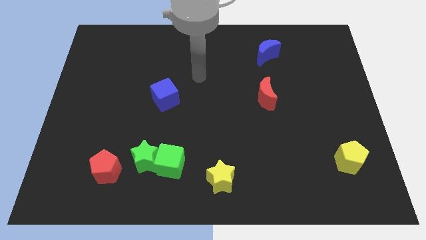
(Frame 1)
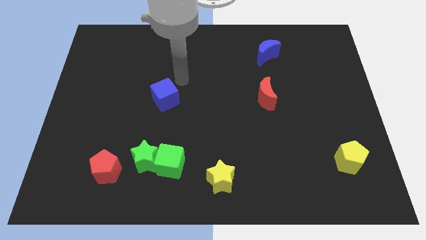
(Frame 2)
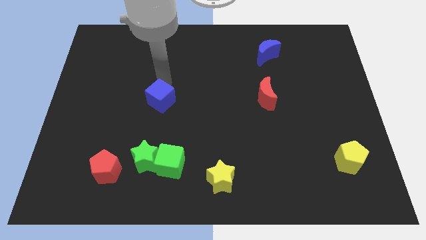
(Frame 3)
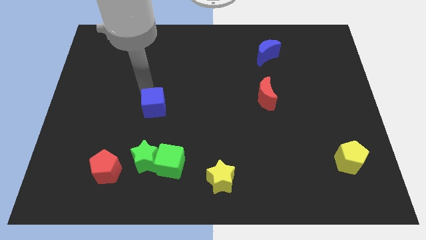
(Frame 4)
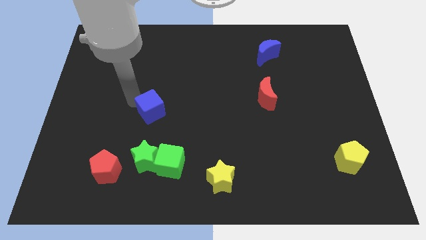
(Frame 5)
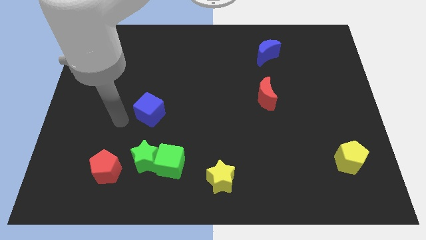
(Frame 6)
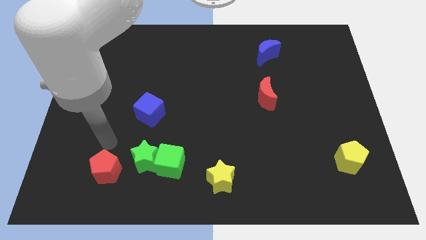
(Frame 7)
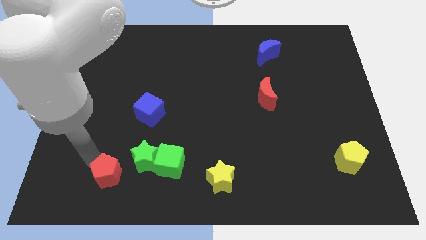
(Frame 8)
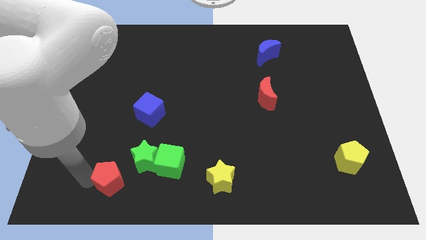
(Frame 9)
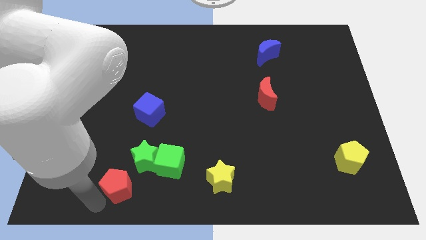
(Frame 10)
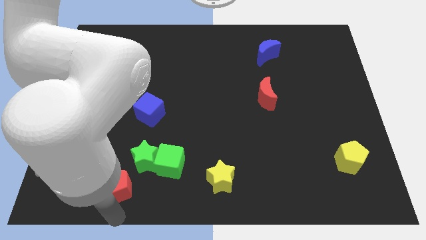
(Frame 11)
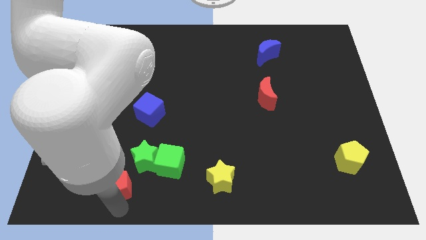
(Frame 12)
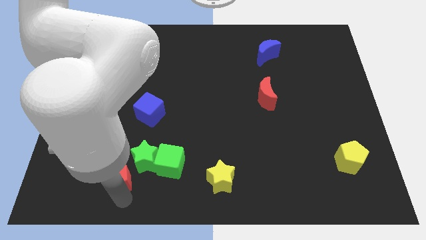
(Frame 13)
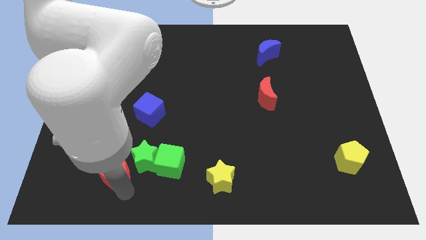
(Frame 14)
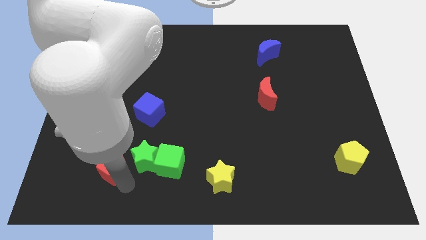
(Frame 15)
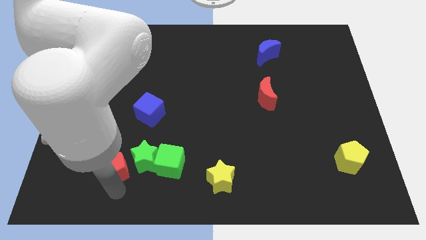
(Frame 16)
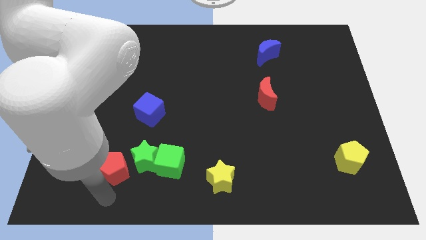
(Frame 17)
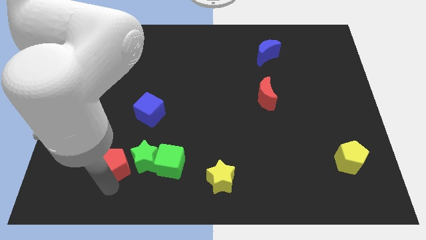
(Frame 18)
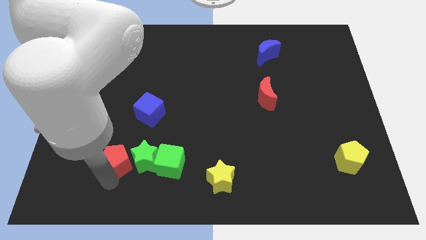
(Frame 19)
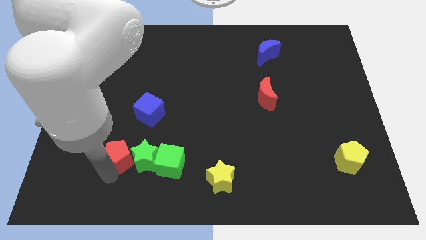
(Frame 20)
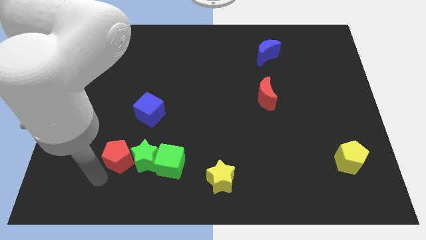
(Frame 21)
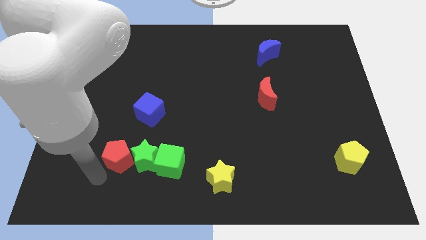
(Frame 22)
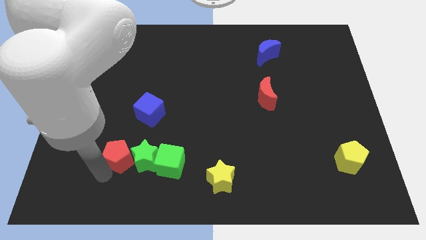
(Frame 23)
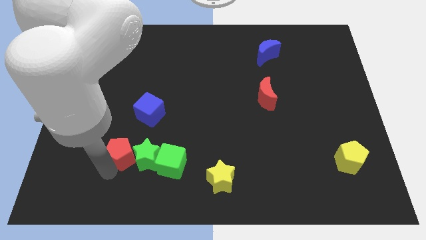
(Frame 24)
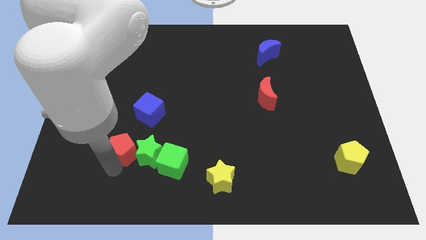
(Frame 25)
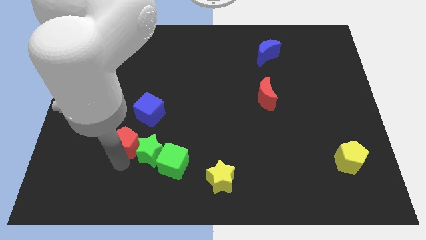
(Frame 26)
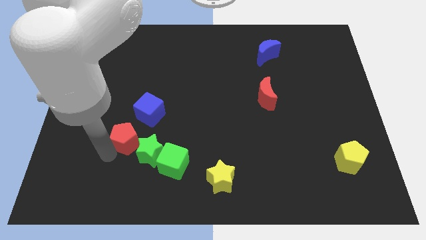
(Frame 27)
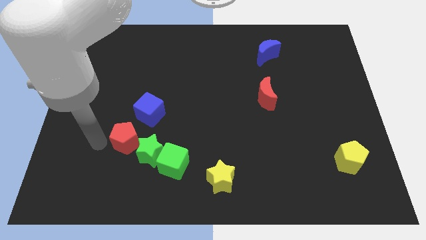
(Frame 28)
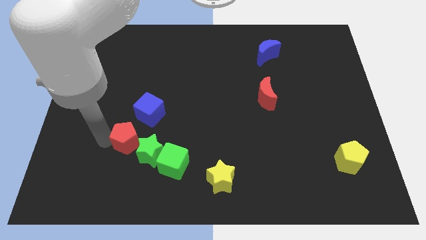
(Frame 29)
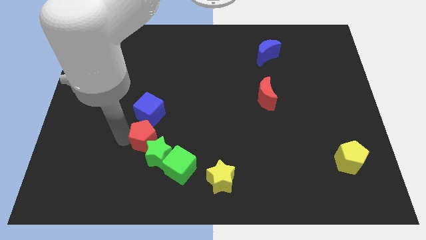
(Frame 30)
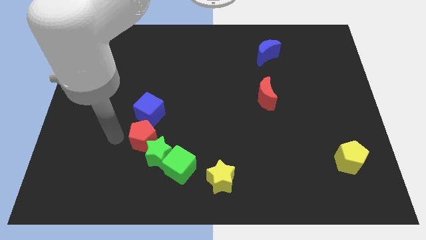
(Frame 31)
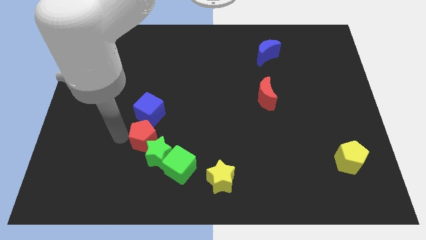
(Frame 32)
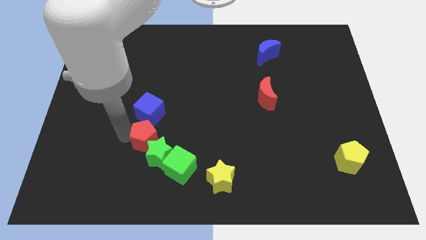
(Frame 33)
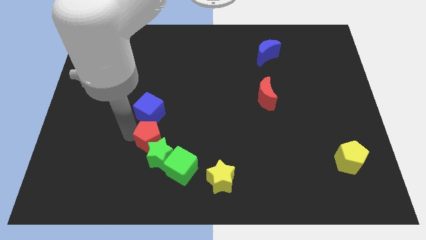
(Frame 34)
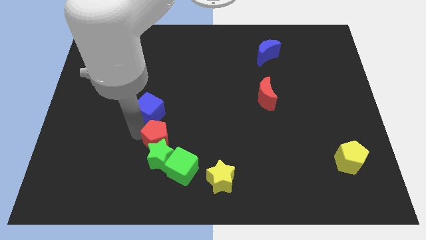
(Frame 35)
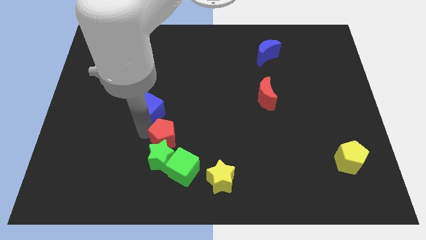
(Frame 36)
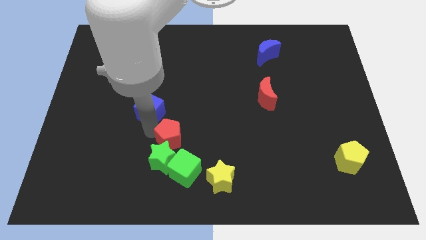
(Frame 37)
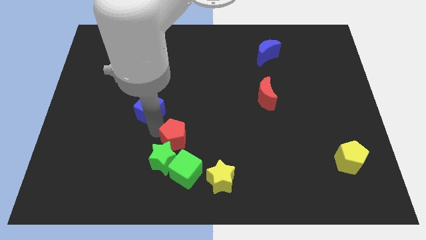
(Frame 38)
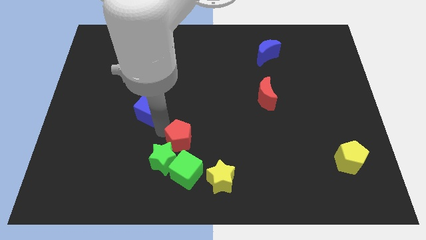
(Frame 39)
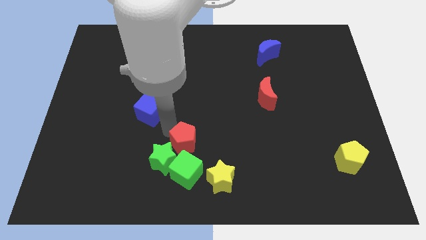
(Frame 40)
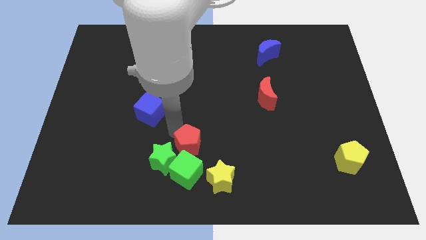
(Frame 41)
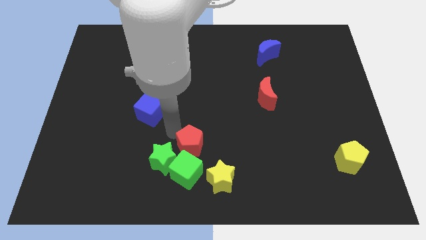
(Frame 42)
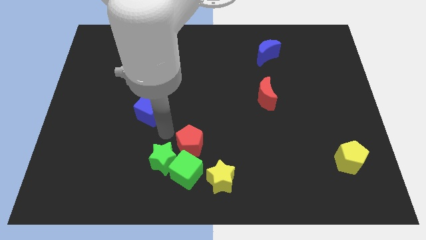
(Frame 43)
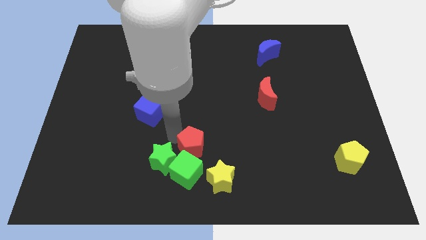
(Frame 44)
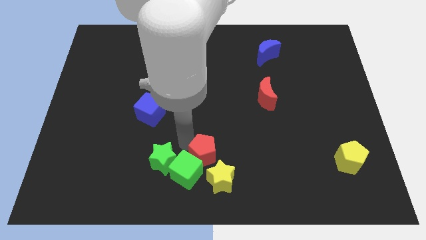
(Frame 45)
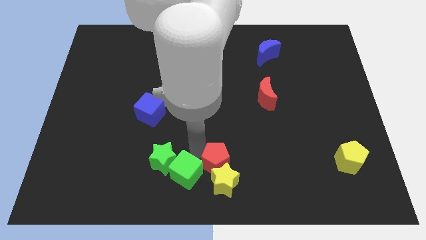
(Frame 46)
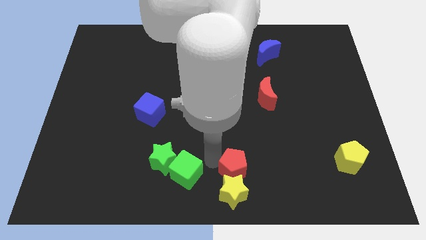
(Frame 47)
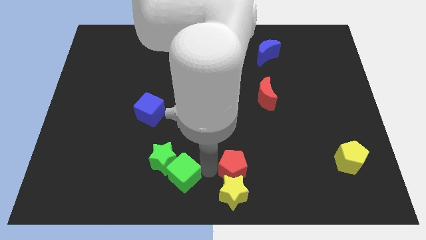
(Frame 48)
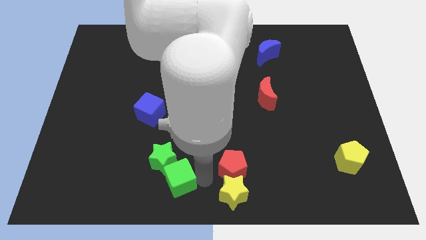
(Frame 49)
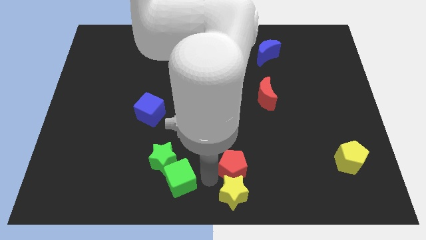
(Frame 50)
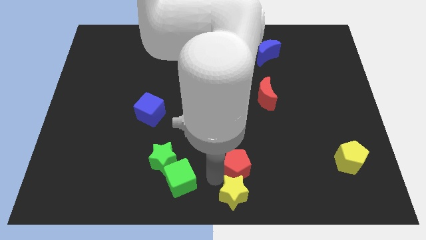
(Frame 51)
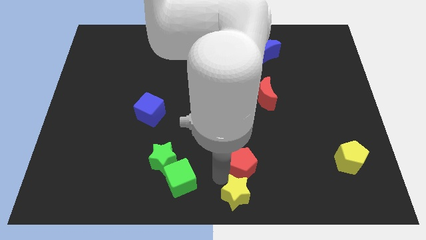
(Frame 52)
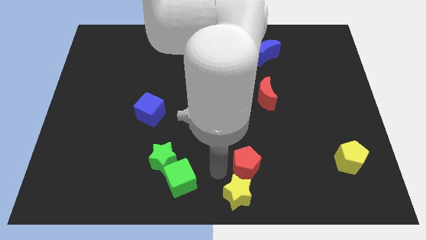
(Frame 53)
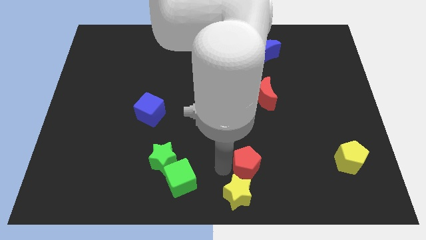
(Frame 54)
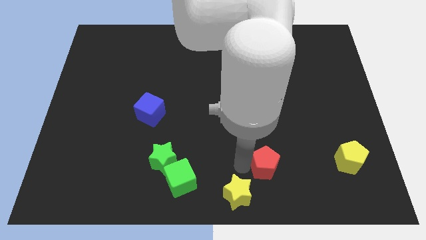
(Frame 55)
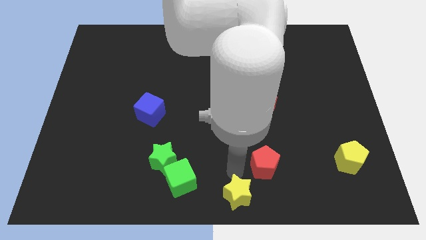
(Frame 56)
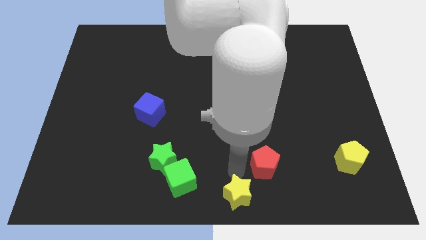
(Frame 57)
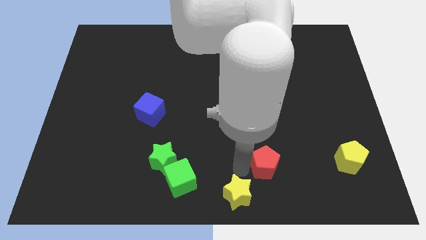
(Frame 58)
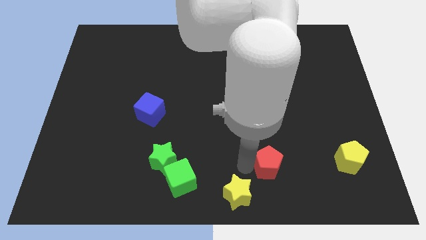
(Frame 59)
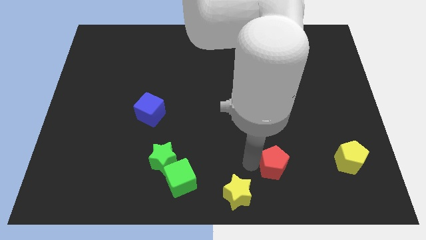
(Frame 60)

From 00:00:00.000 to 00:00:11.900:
move the red pentagon to the left side of the yellow pentagon
